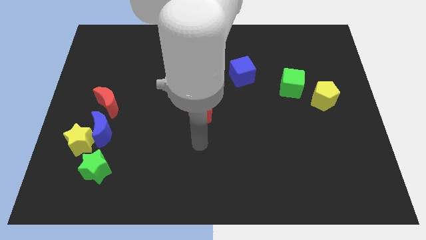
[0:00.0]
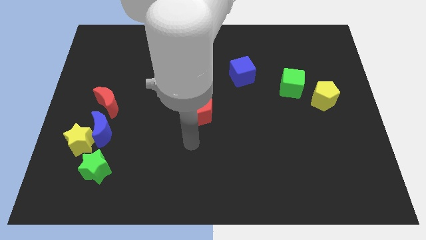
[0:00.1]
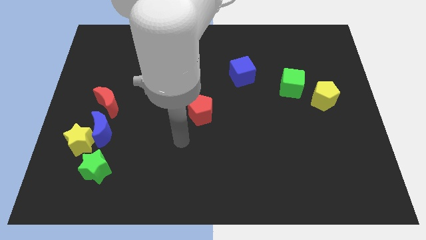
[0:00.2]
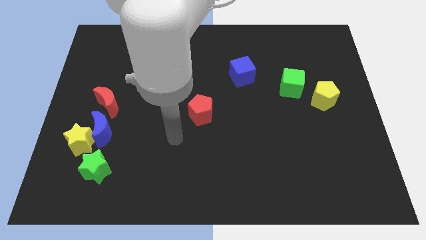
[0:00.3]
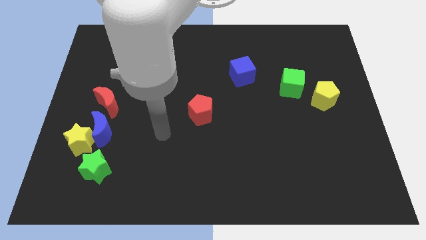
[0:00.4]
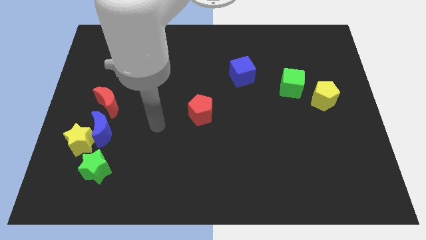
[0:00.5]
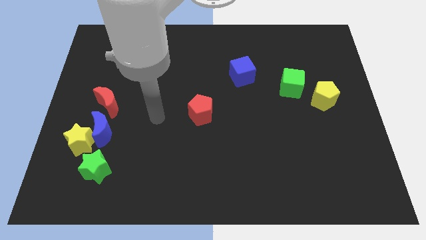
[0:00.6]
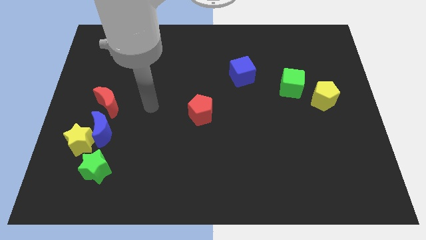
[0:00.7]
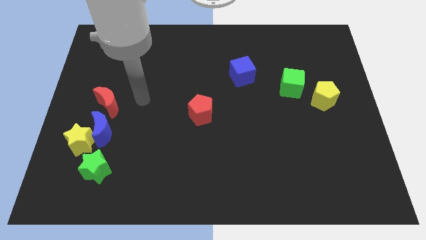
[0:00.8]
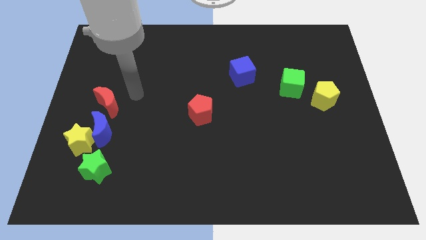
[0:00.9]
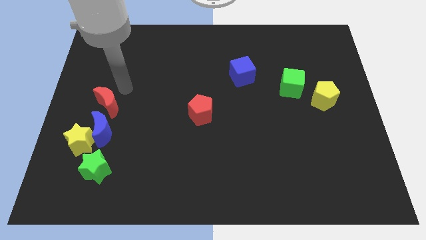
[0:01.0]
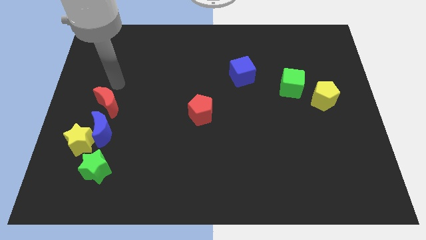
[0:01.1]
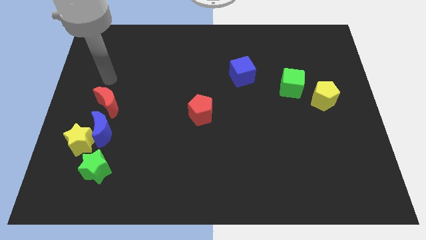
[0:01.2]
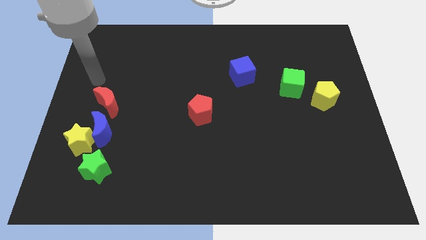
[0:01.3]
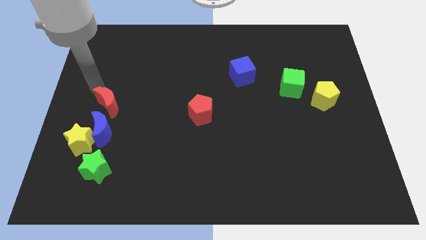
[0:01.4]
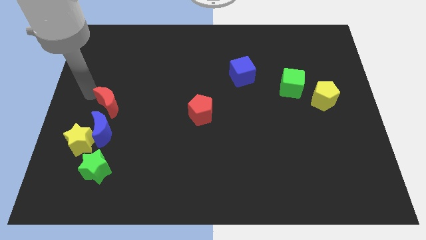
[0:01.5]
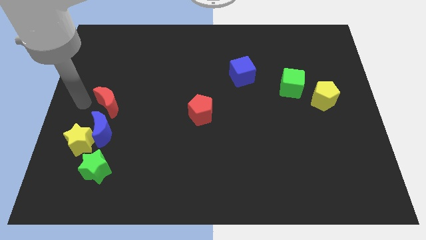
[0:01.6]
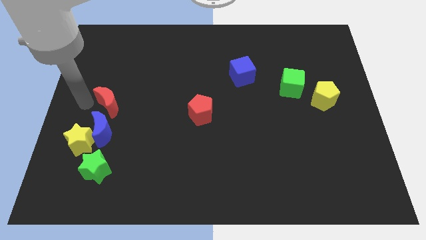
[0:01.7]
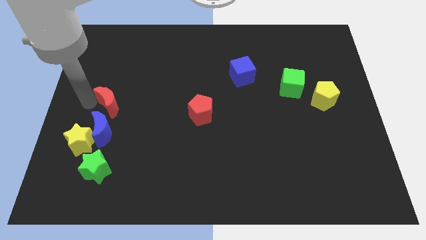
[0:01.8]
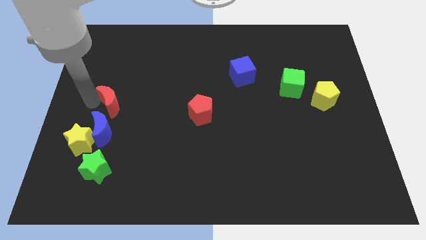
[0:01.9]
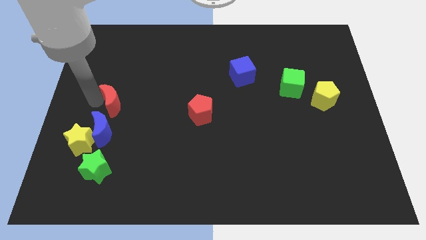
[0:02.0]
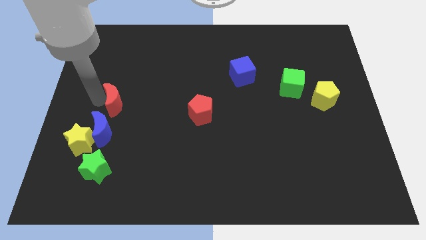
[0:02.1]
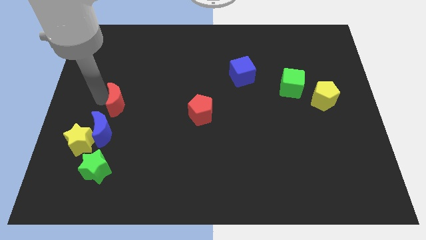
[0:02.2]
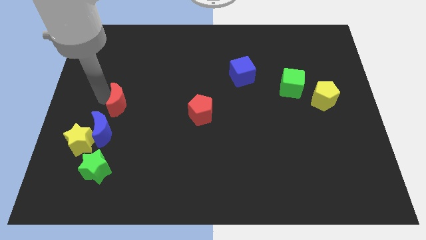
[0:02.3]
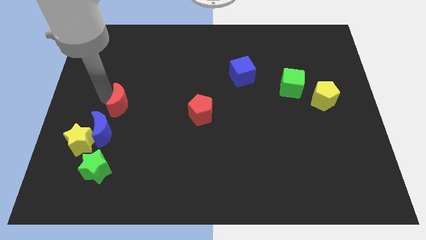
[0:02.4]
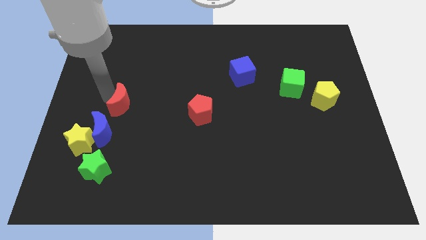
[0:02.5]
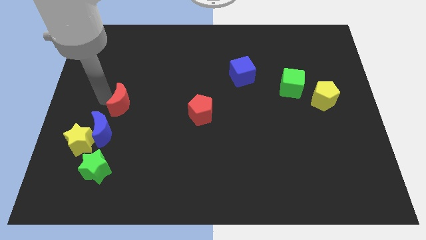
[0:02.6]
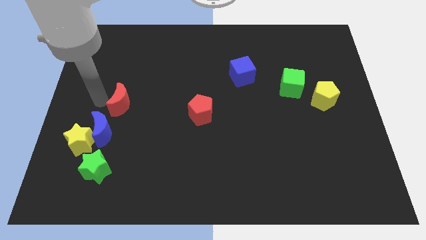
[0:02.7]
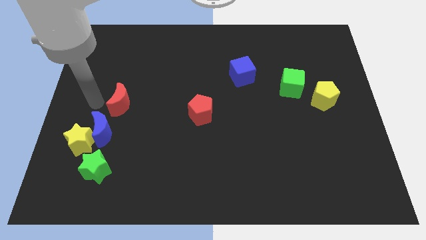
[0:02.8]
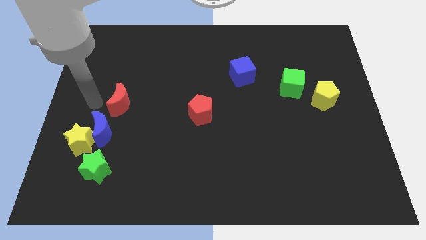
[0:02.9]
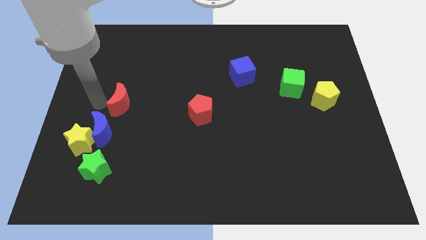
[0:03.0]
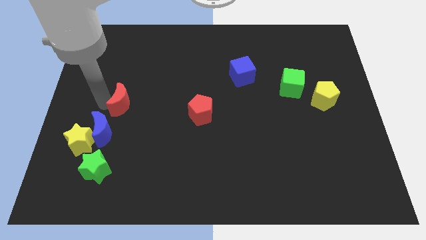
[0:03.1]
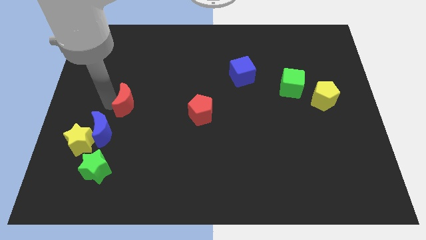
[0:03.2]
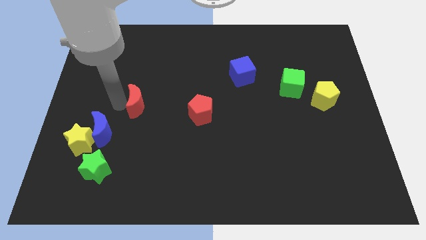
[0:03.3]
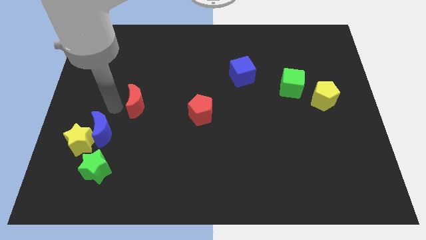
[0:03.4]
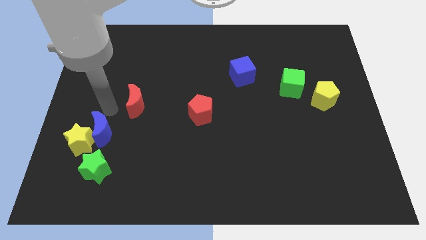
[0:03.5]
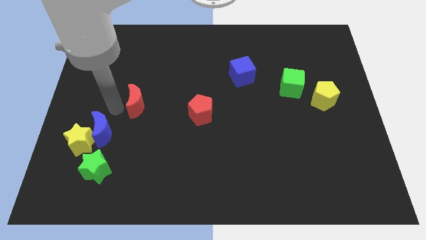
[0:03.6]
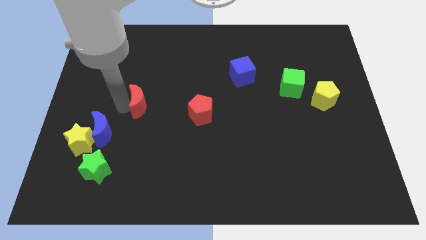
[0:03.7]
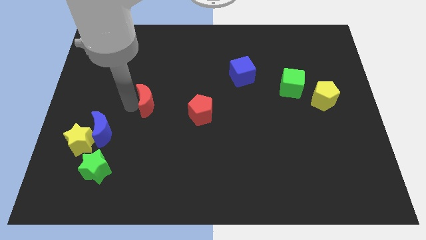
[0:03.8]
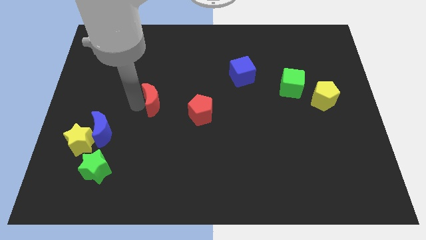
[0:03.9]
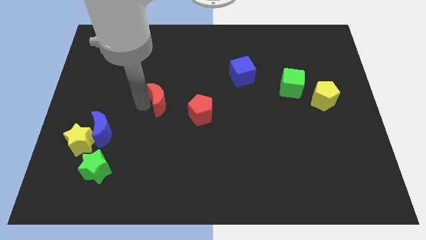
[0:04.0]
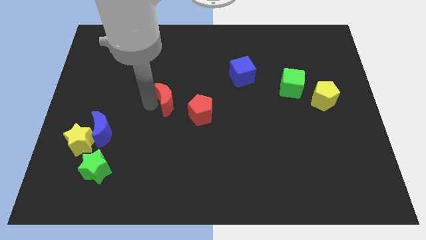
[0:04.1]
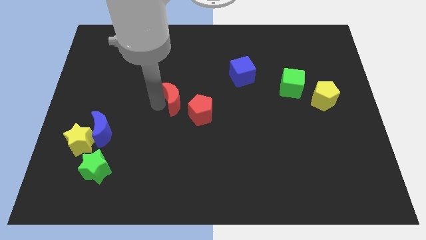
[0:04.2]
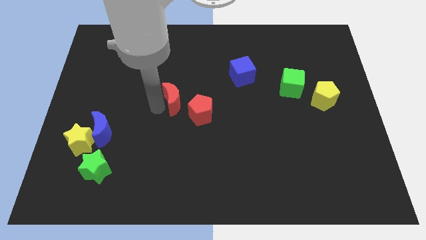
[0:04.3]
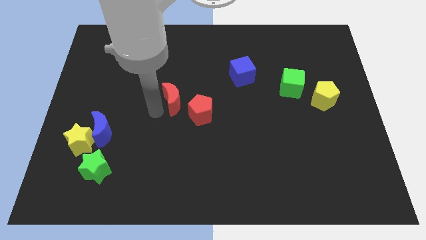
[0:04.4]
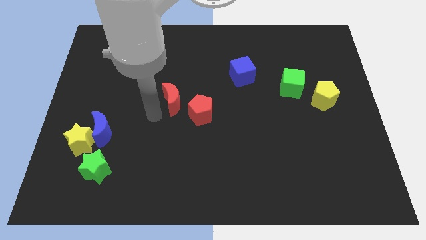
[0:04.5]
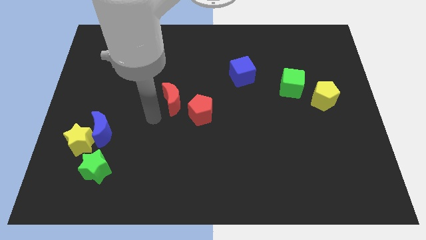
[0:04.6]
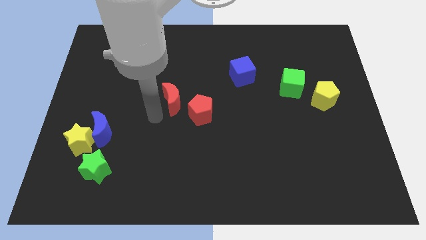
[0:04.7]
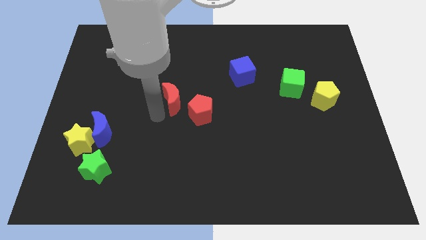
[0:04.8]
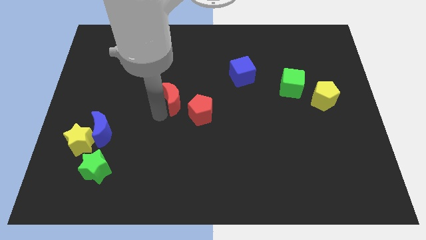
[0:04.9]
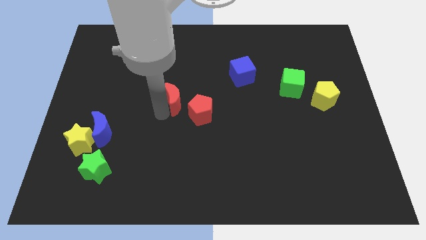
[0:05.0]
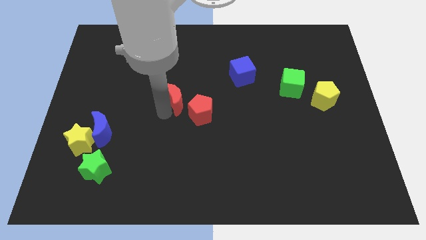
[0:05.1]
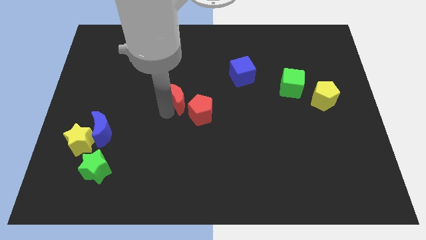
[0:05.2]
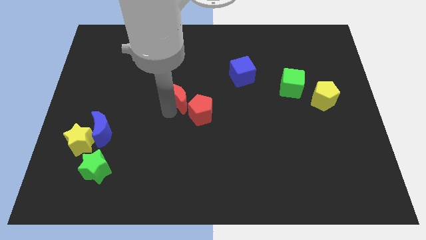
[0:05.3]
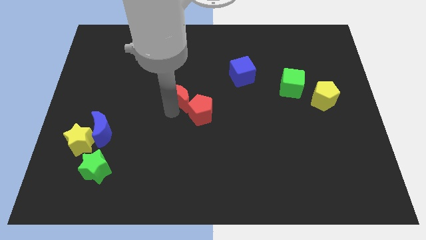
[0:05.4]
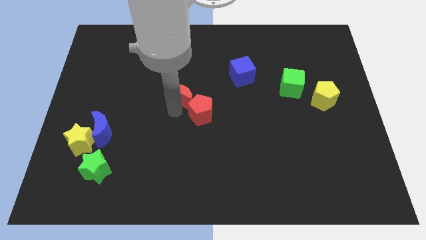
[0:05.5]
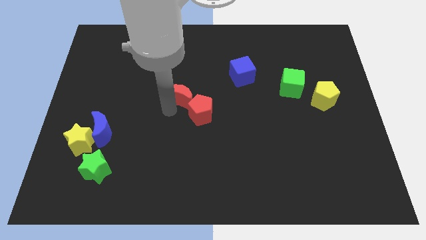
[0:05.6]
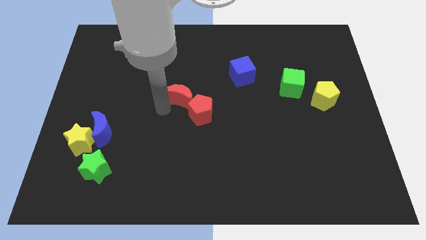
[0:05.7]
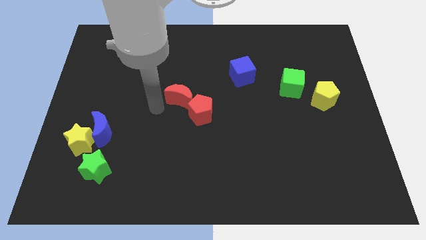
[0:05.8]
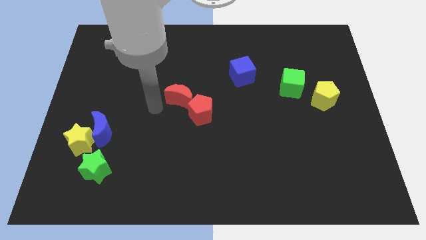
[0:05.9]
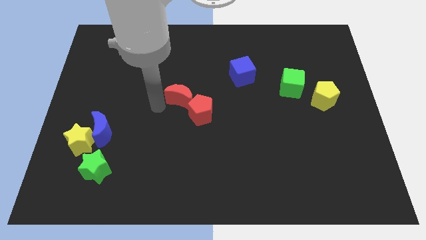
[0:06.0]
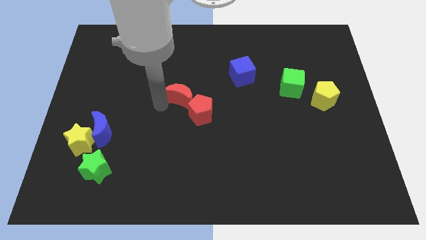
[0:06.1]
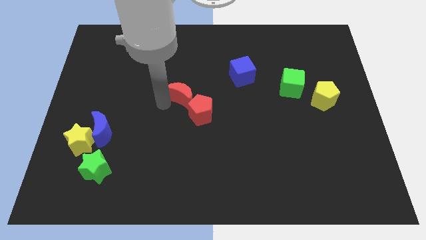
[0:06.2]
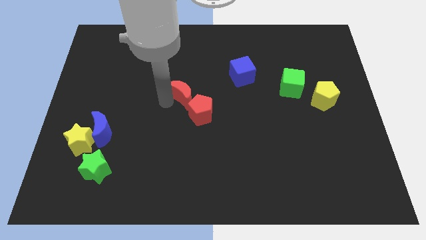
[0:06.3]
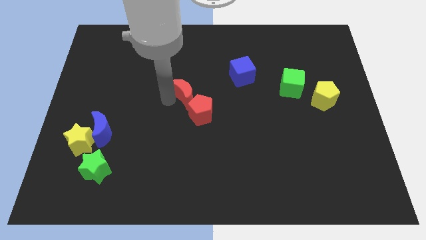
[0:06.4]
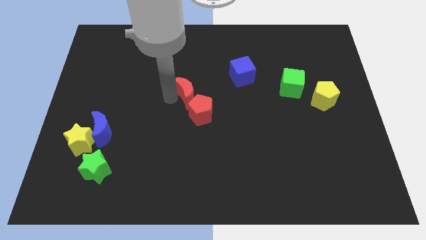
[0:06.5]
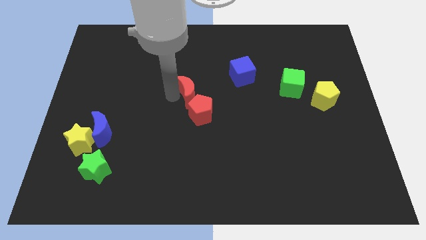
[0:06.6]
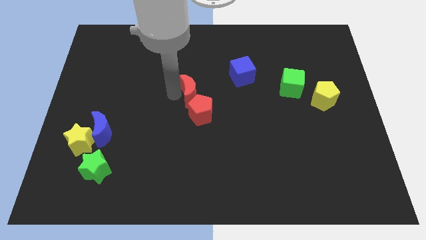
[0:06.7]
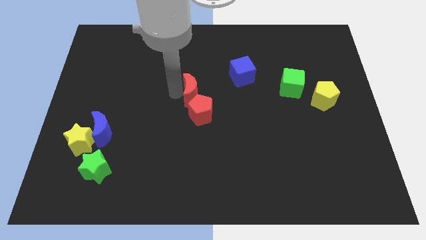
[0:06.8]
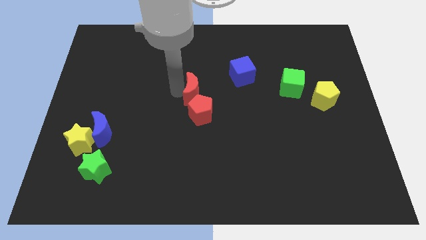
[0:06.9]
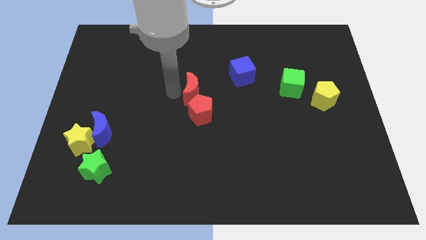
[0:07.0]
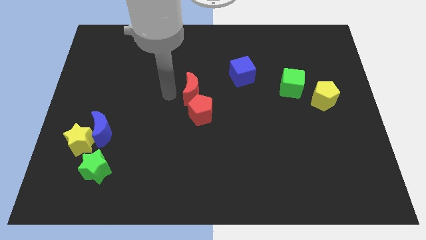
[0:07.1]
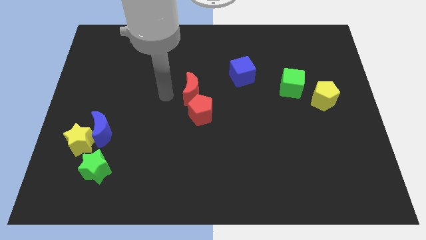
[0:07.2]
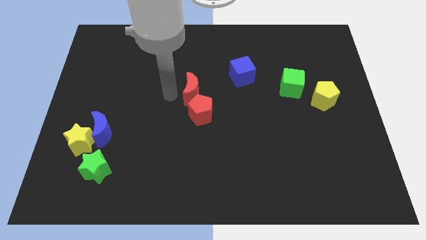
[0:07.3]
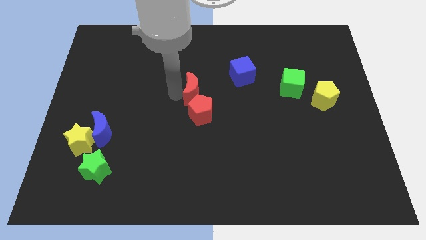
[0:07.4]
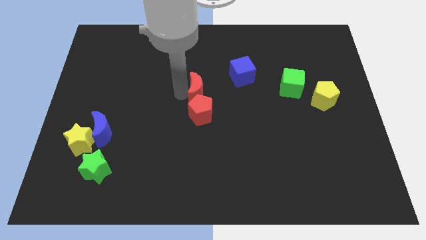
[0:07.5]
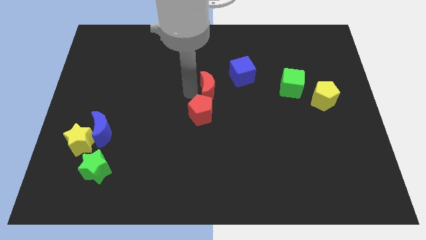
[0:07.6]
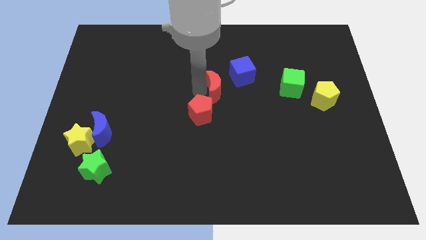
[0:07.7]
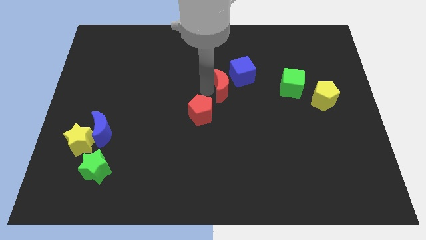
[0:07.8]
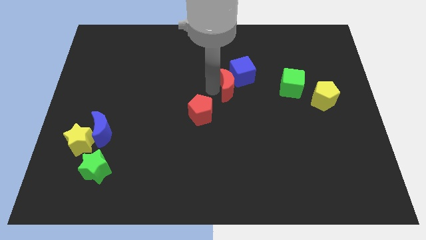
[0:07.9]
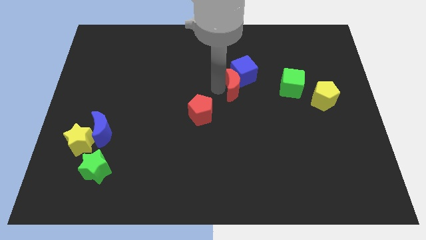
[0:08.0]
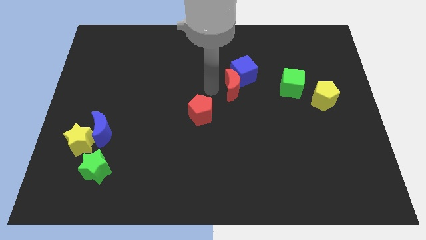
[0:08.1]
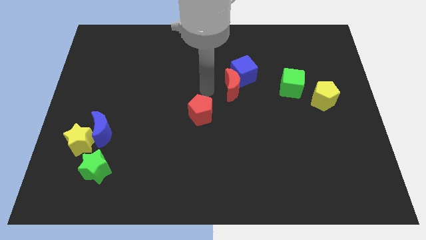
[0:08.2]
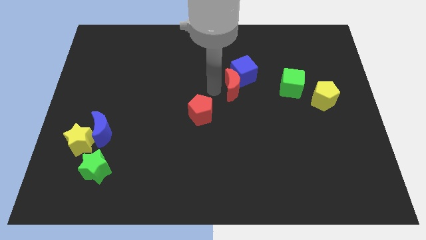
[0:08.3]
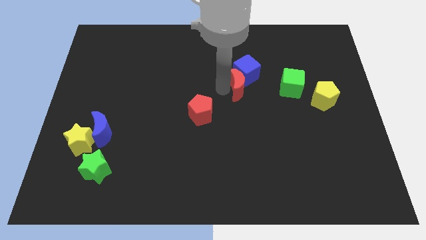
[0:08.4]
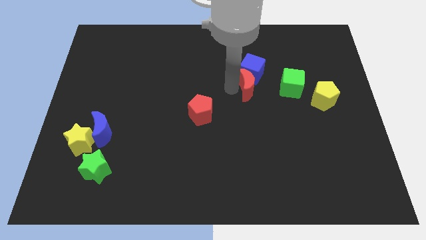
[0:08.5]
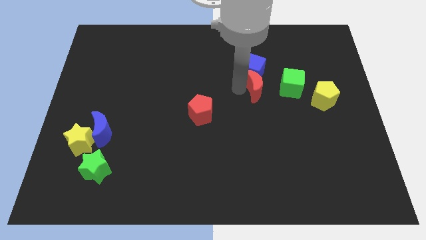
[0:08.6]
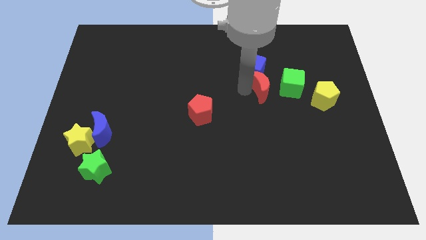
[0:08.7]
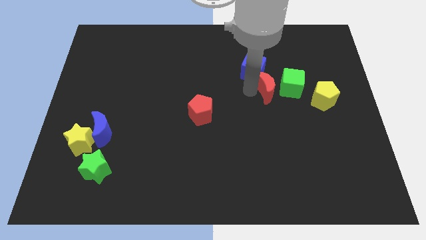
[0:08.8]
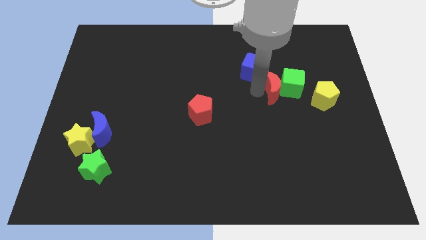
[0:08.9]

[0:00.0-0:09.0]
push the red moon next to the green cube
